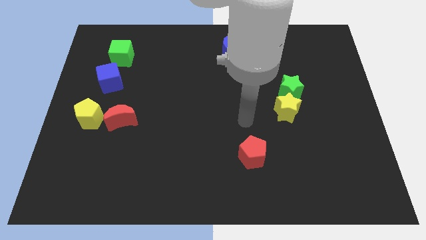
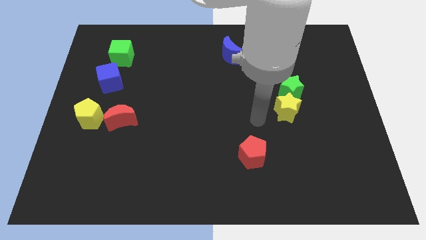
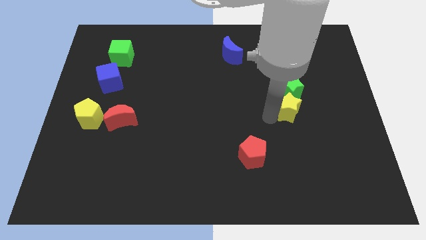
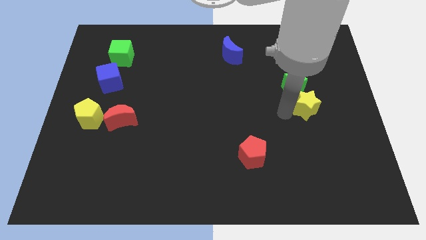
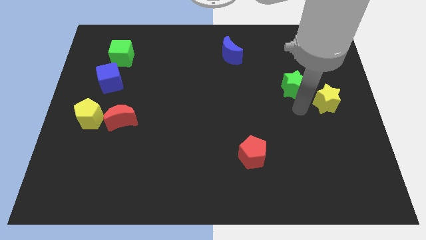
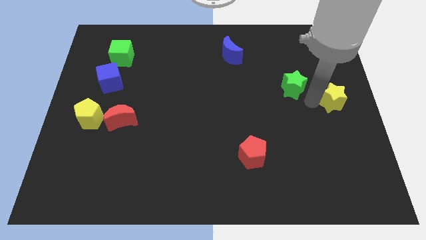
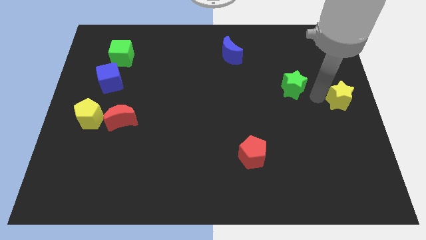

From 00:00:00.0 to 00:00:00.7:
move the green star away from the yellow star

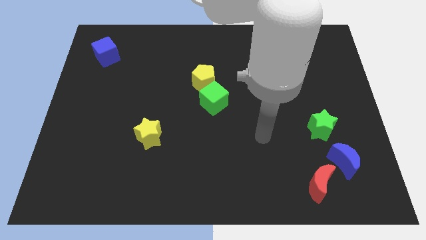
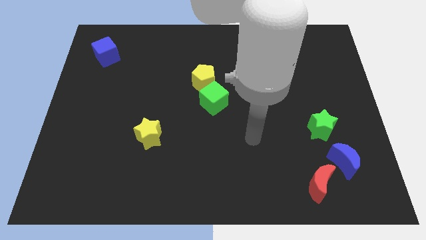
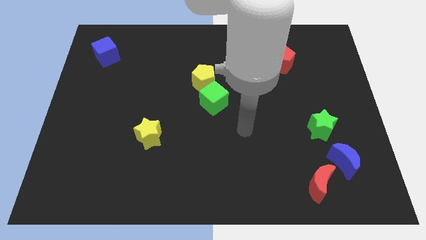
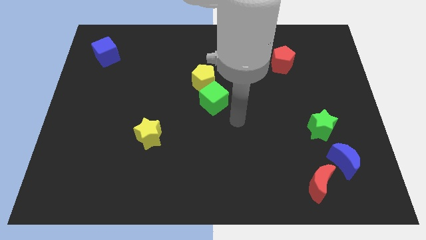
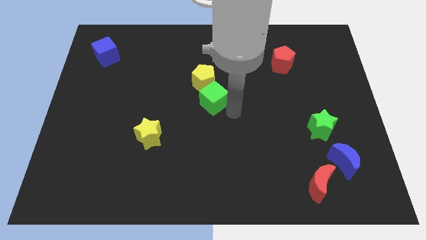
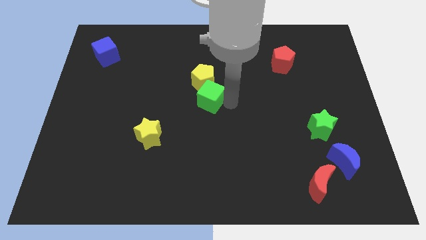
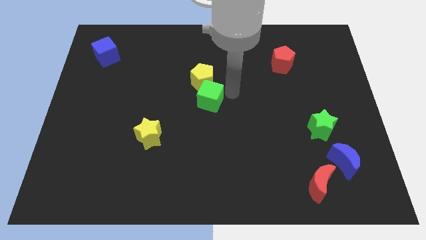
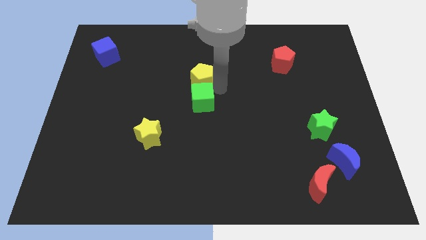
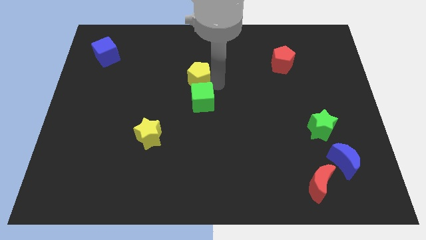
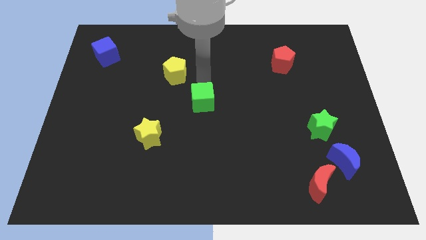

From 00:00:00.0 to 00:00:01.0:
pull the green cube apart from the yellow pentagon

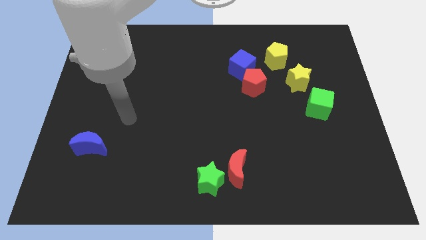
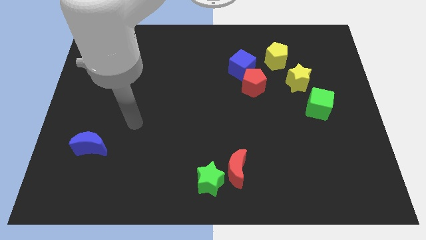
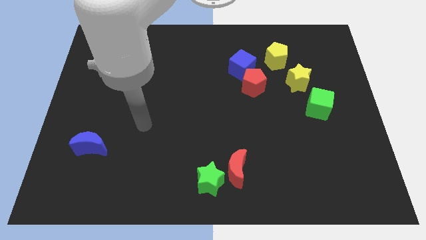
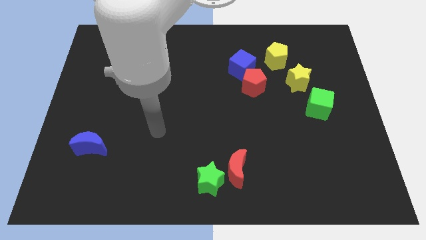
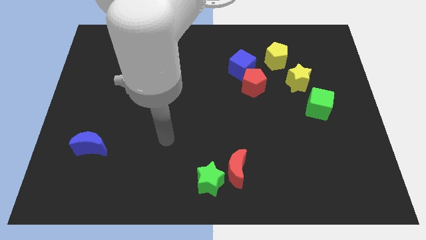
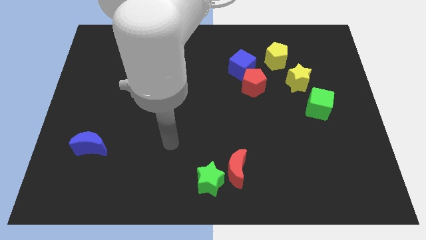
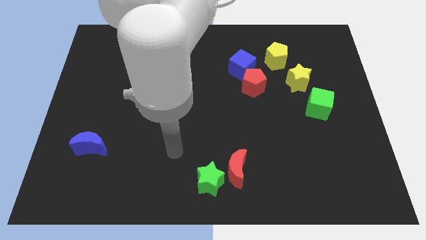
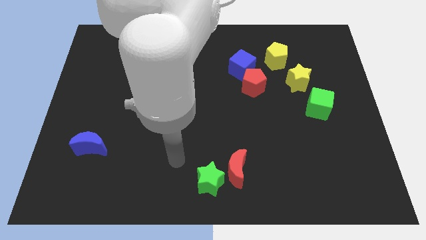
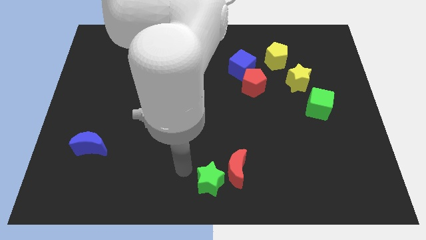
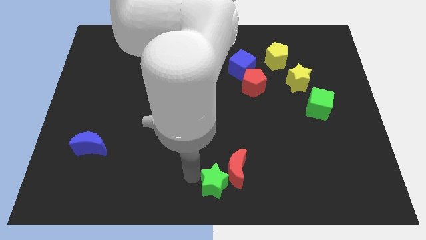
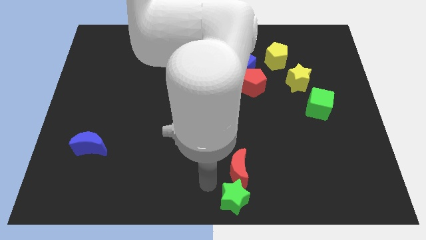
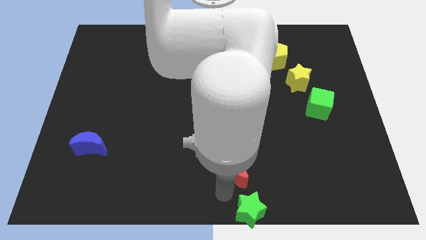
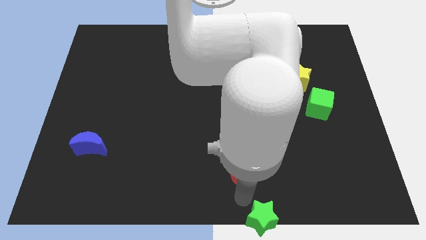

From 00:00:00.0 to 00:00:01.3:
separate the red moon from the green star

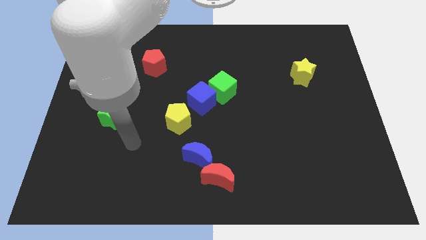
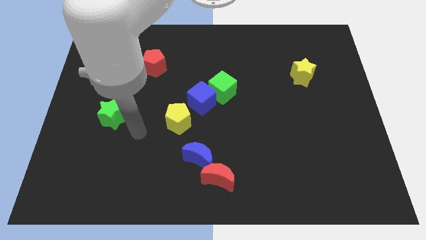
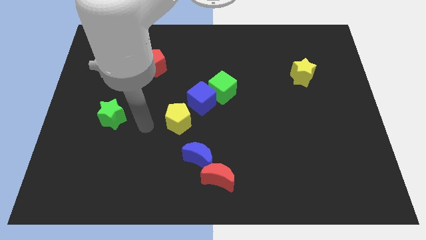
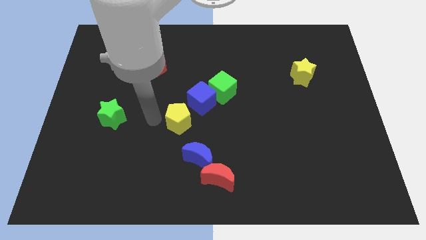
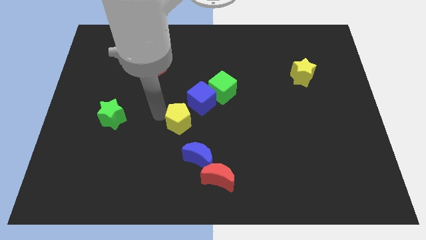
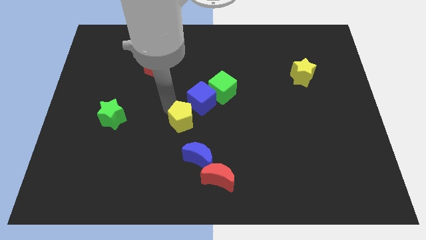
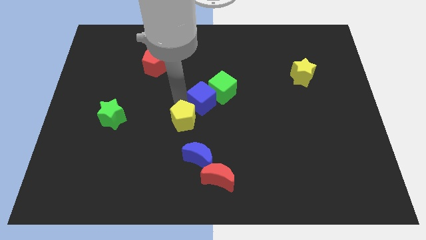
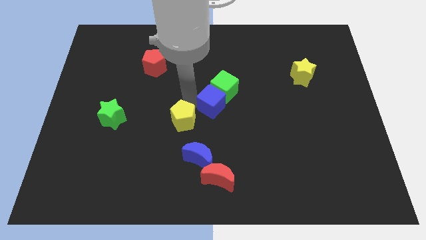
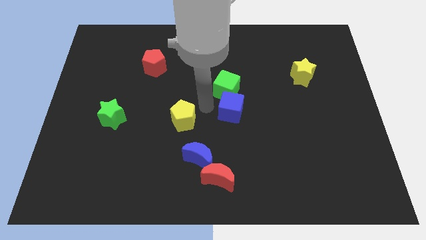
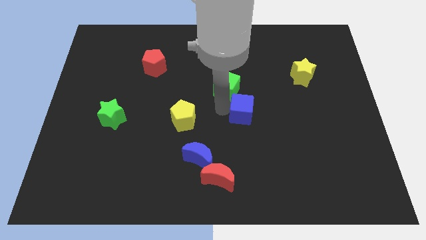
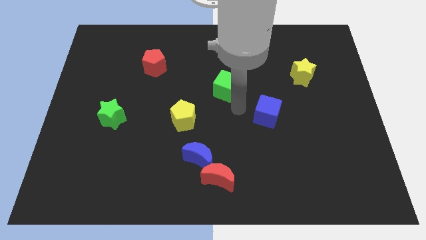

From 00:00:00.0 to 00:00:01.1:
move the green cube away from the blue cube

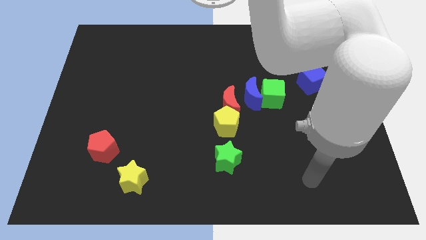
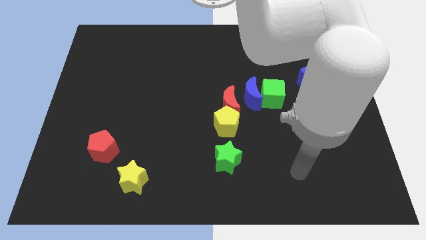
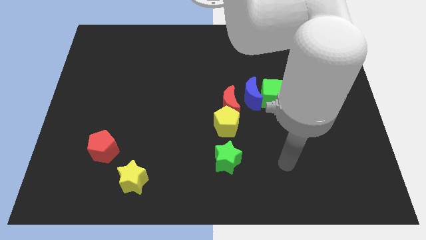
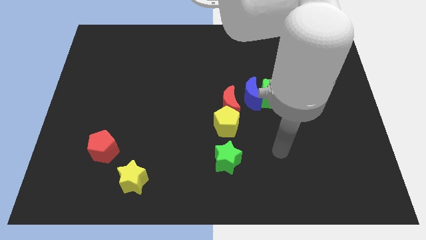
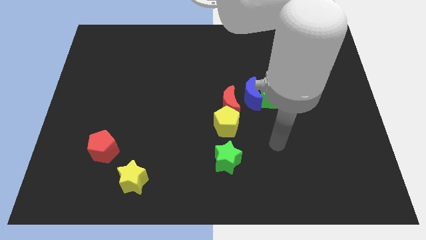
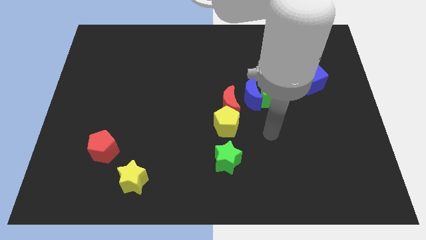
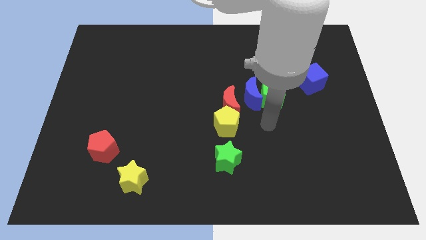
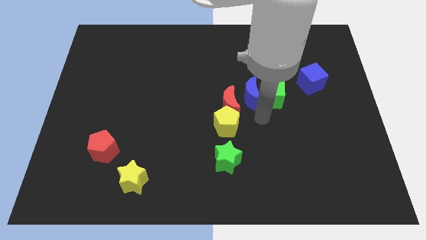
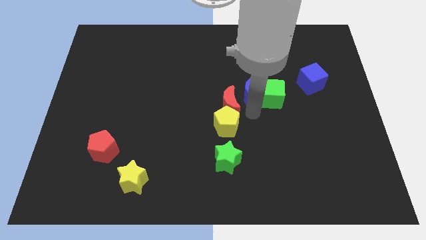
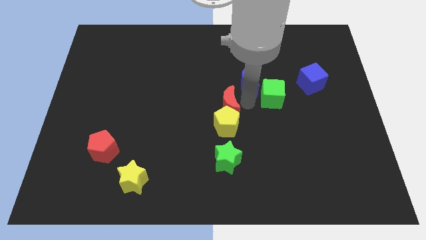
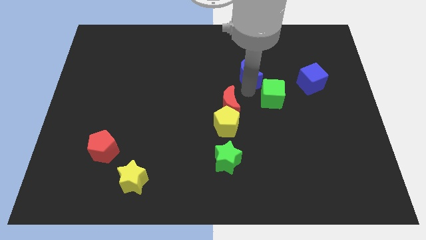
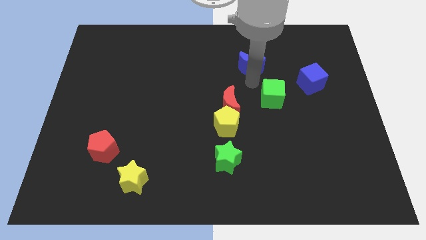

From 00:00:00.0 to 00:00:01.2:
separate the green cube from the blue moon

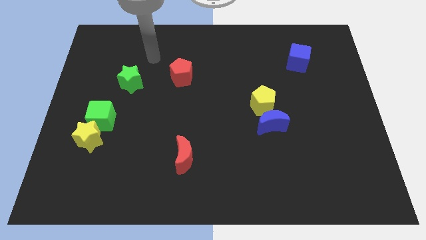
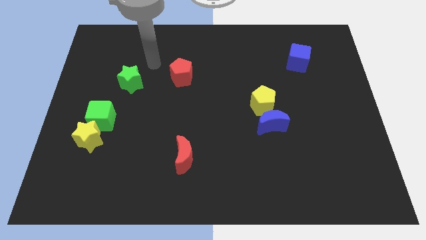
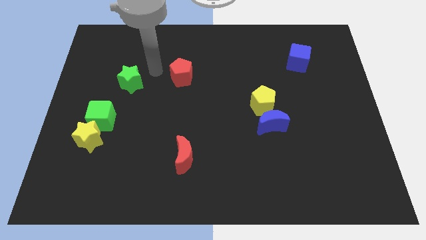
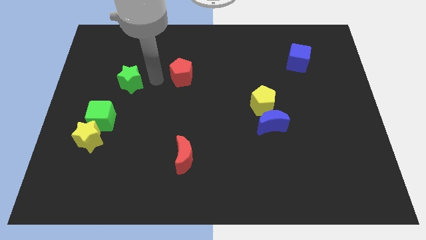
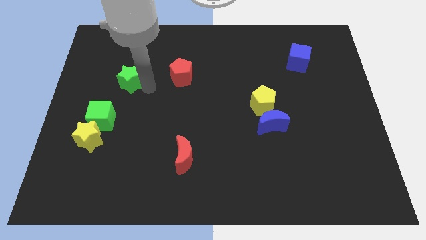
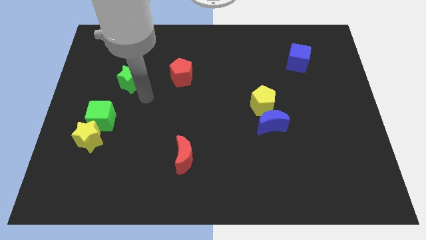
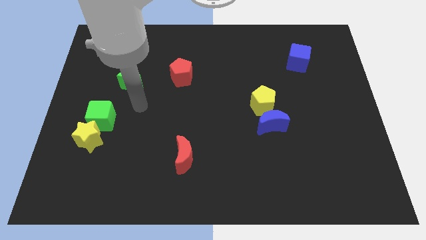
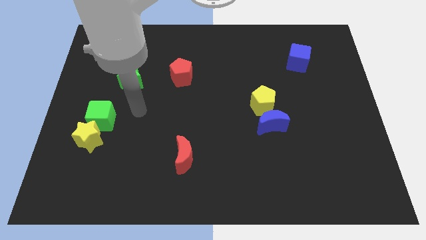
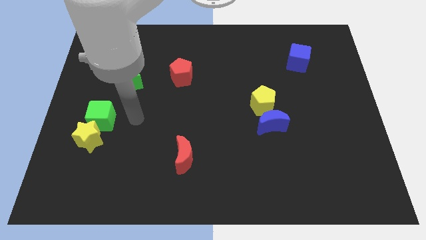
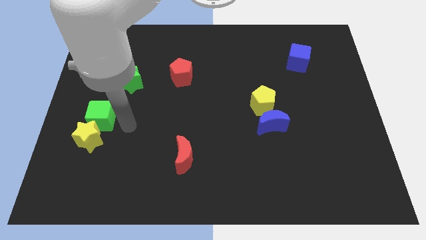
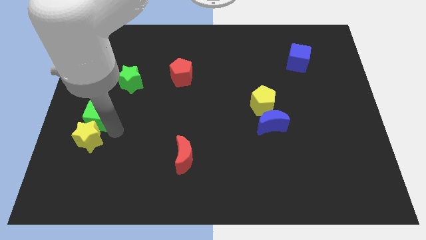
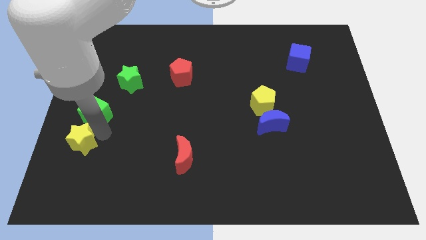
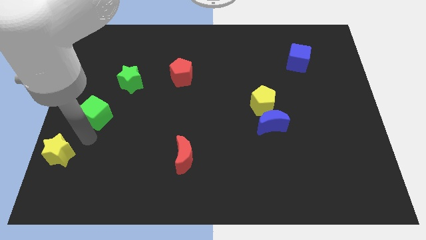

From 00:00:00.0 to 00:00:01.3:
pull the green cube apart from the yellow star

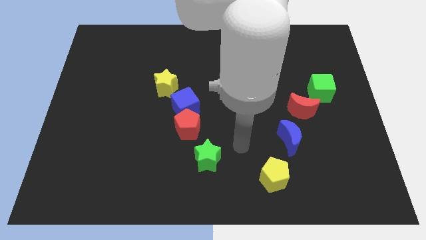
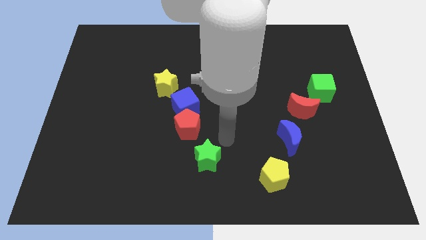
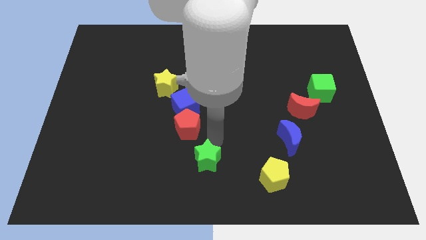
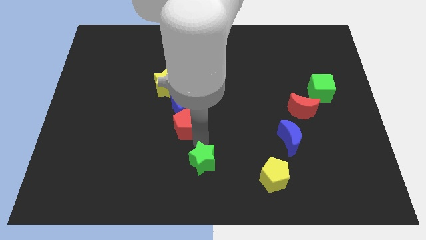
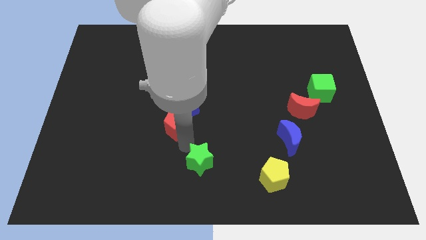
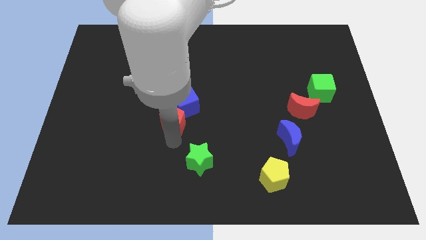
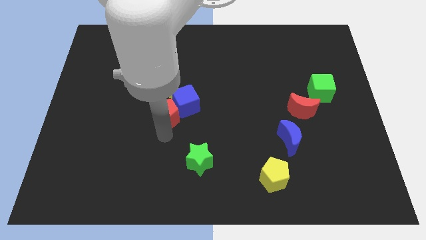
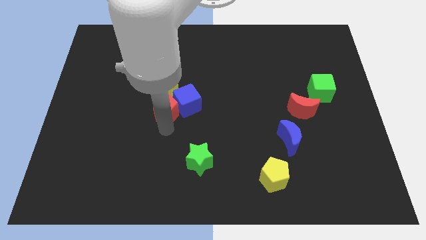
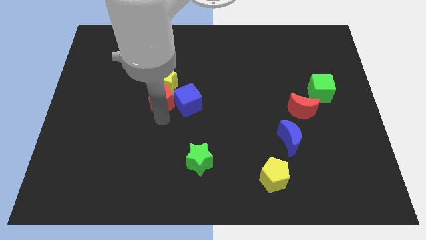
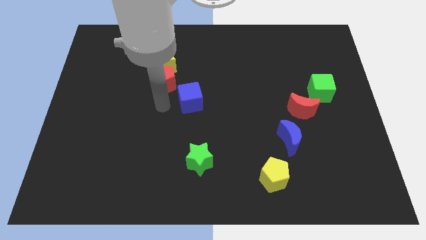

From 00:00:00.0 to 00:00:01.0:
pull the blue cube apart from the red pentagon and yellow star

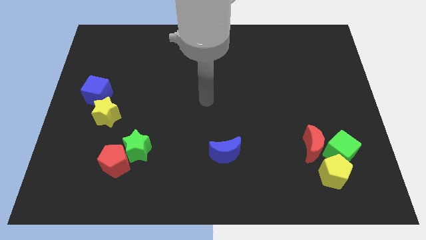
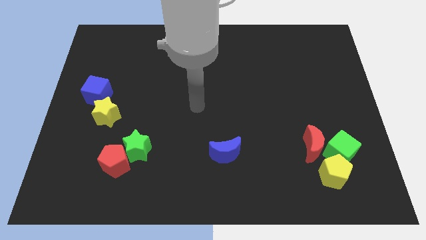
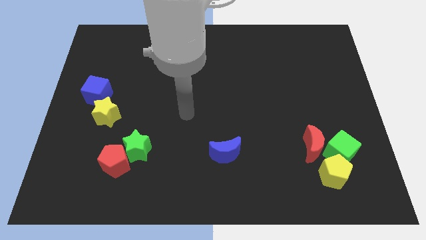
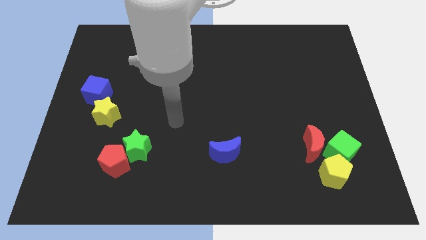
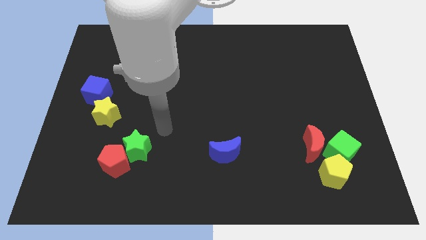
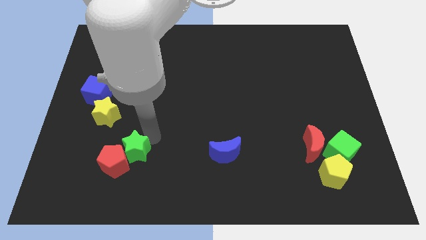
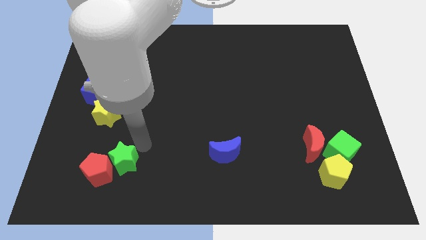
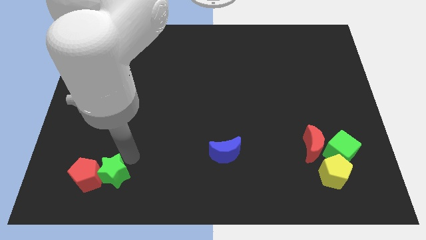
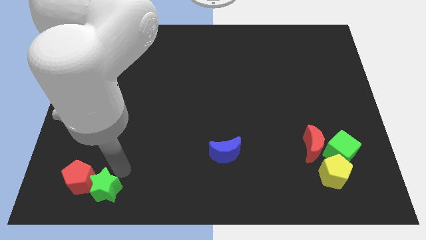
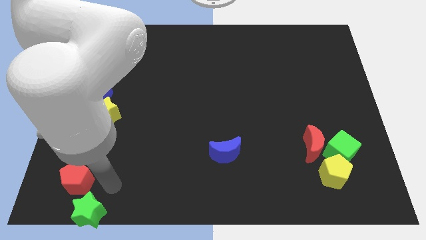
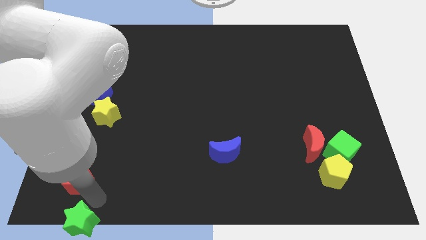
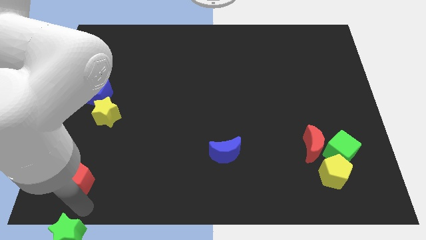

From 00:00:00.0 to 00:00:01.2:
pull the red pentagon apart from the green star

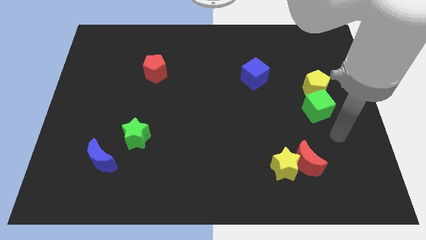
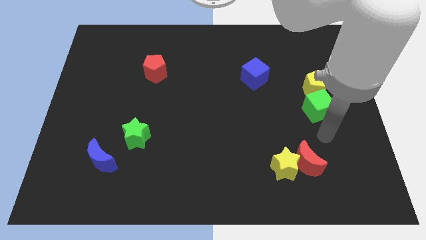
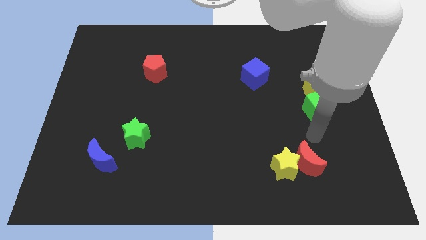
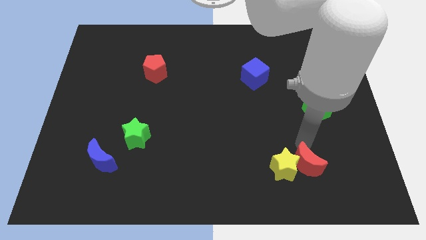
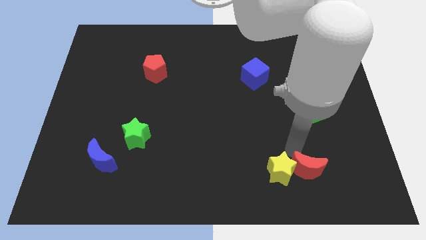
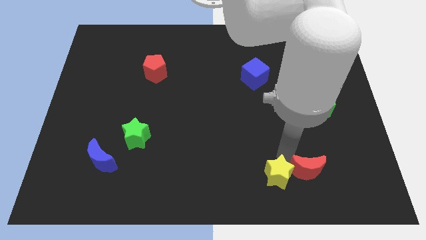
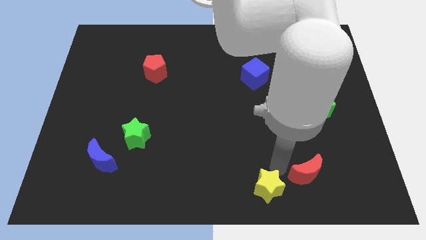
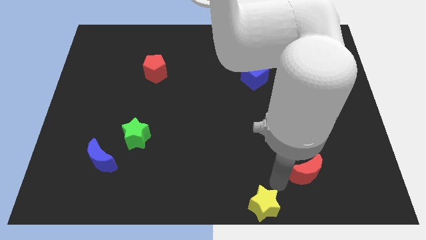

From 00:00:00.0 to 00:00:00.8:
move the red moon away from the yellow star
